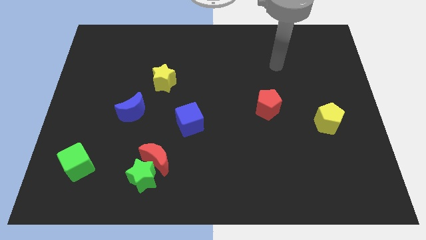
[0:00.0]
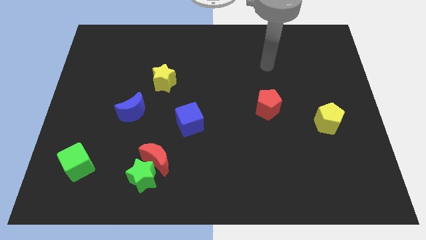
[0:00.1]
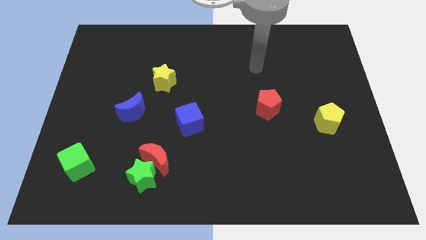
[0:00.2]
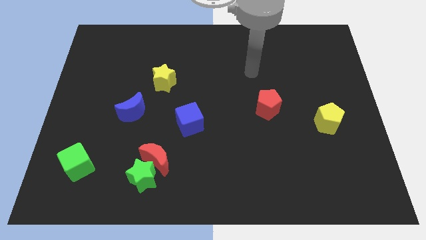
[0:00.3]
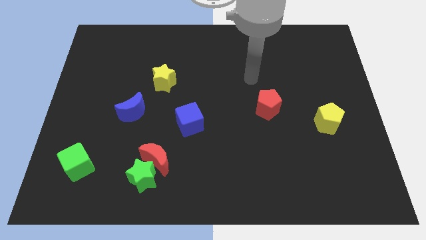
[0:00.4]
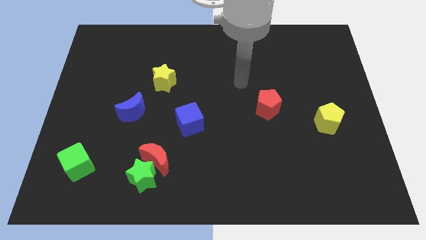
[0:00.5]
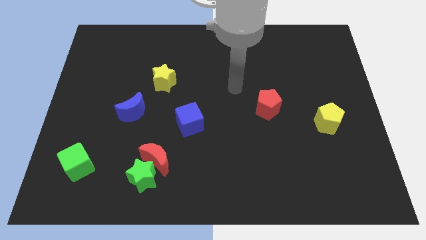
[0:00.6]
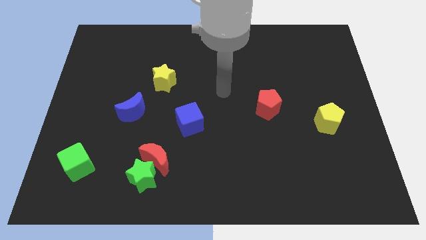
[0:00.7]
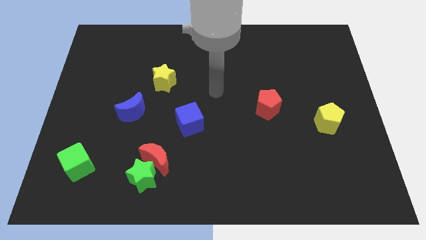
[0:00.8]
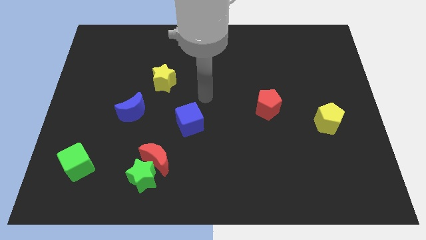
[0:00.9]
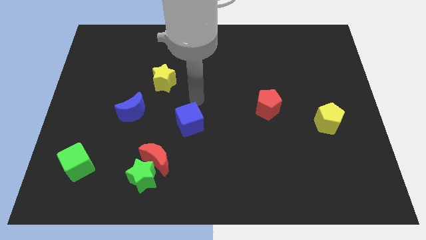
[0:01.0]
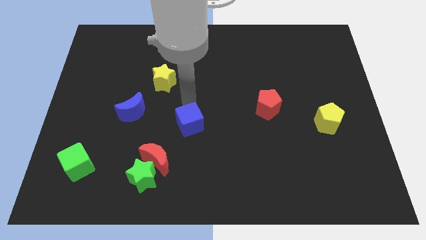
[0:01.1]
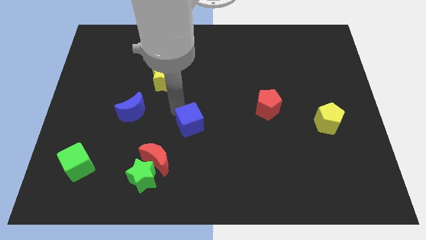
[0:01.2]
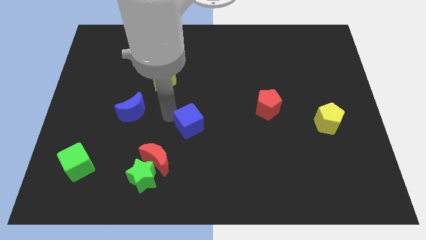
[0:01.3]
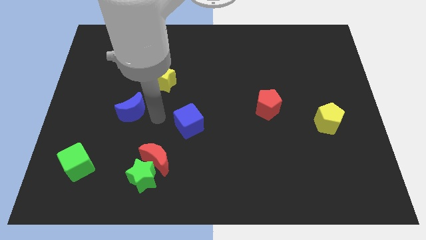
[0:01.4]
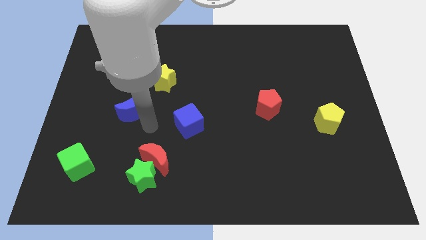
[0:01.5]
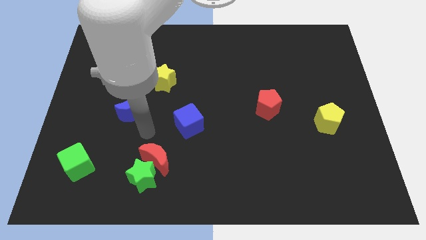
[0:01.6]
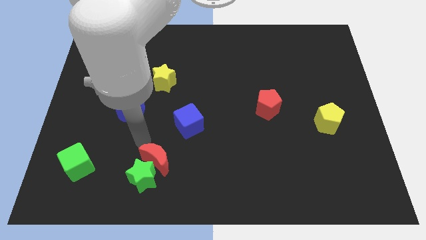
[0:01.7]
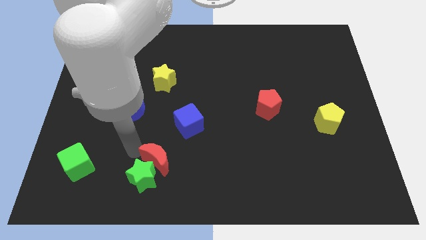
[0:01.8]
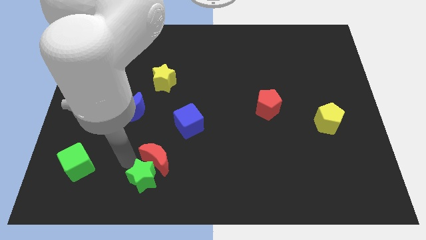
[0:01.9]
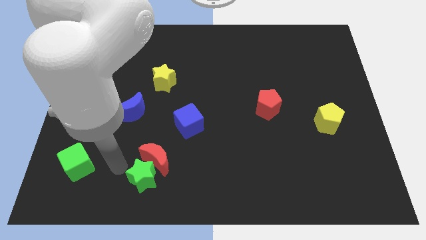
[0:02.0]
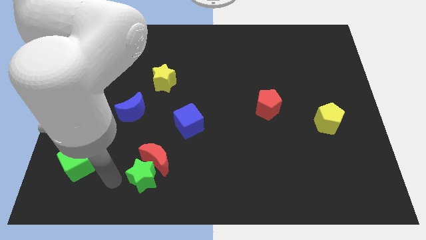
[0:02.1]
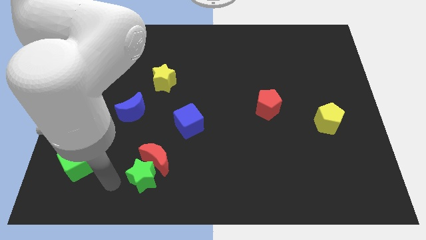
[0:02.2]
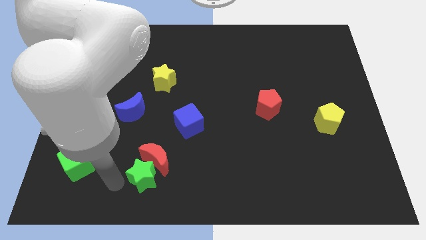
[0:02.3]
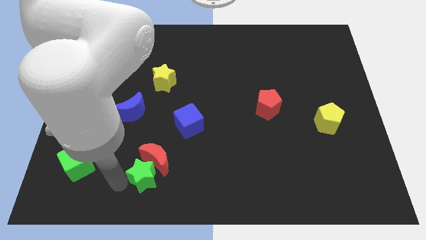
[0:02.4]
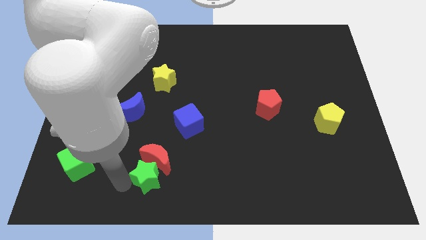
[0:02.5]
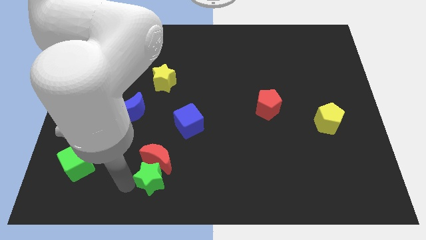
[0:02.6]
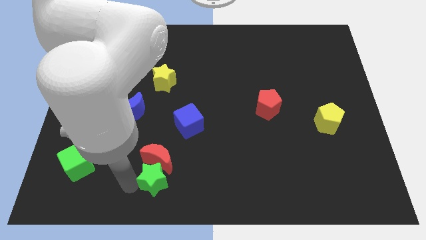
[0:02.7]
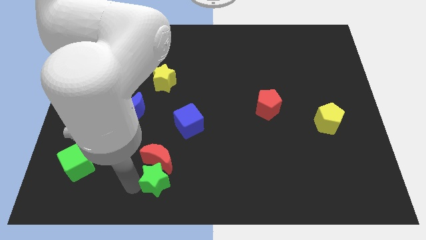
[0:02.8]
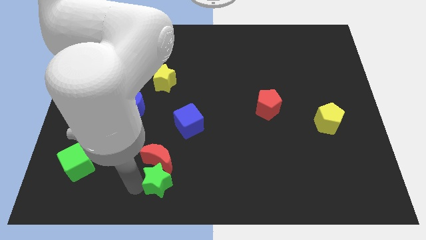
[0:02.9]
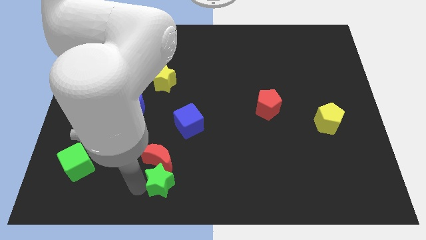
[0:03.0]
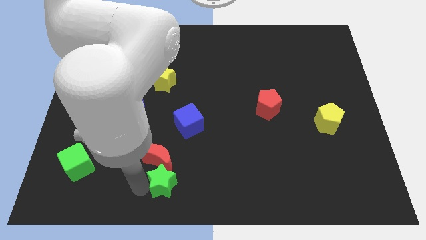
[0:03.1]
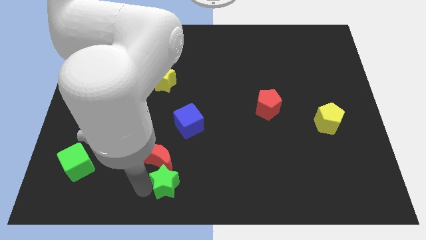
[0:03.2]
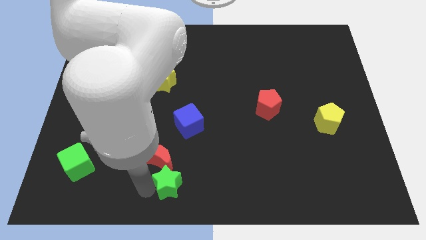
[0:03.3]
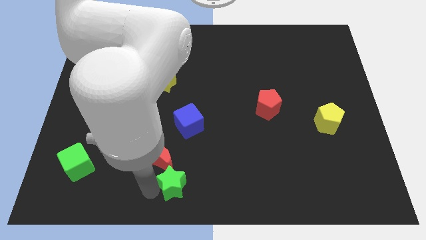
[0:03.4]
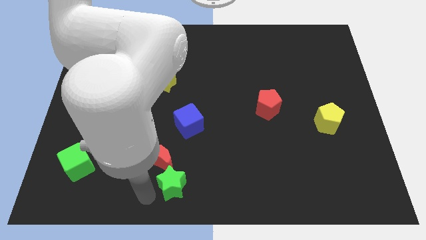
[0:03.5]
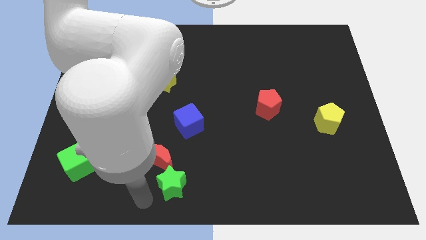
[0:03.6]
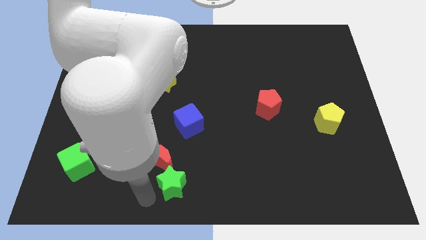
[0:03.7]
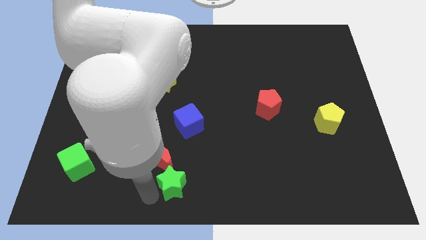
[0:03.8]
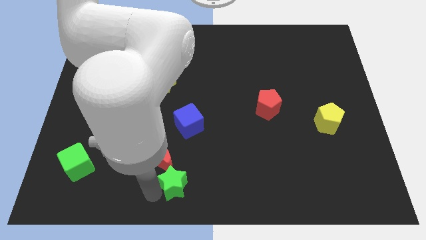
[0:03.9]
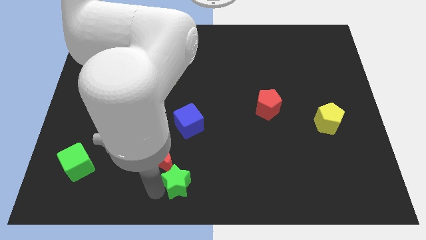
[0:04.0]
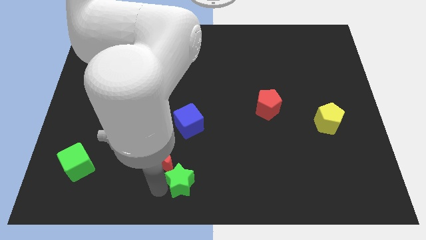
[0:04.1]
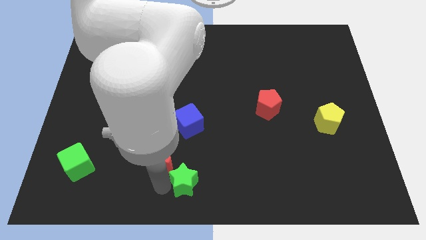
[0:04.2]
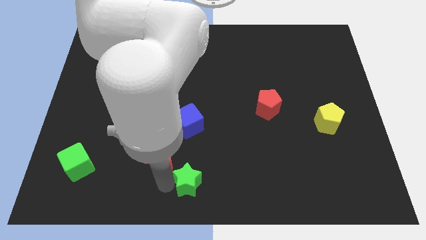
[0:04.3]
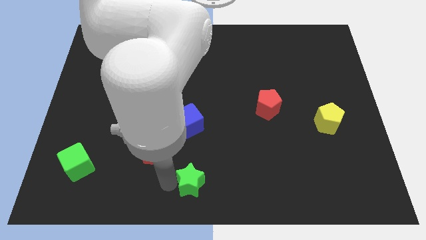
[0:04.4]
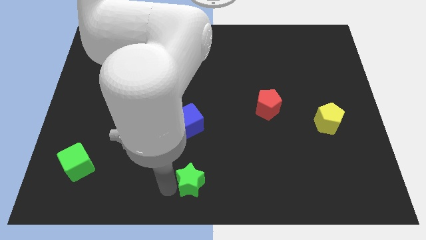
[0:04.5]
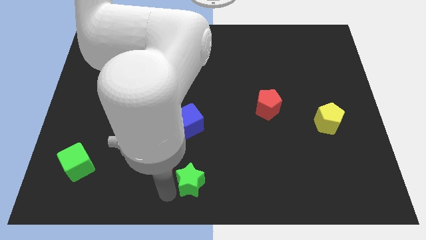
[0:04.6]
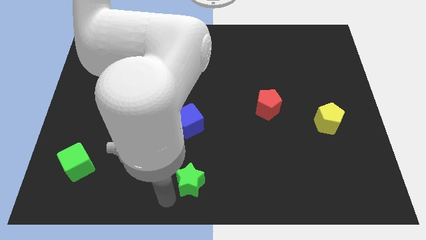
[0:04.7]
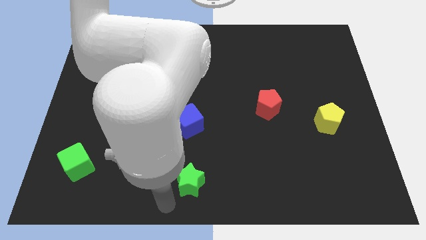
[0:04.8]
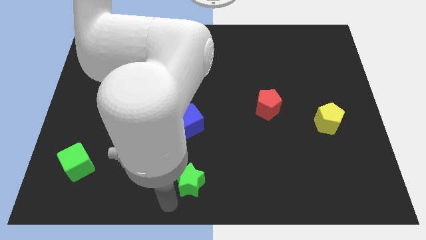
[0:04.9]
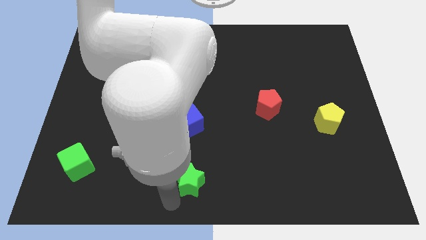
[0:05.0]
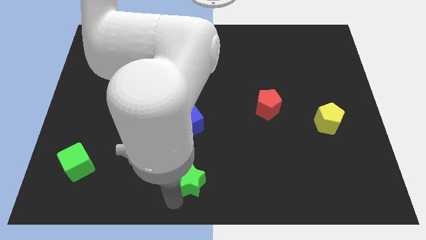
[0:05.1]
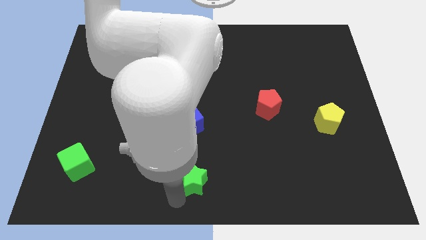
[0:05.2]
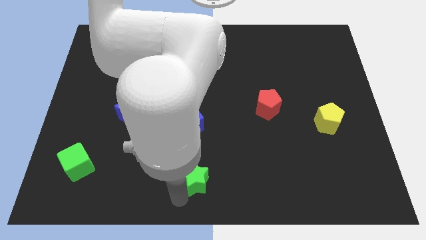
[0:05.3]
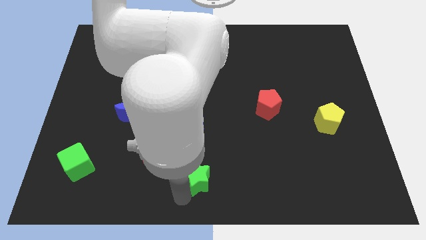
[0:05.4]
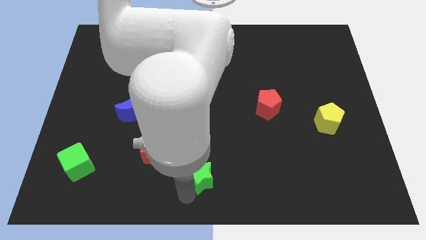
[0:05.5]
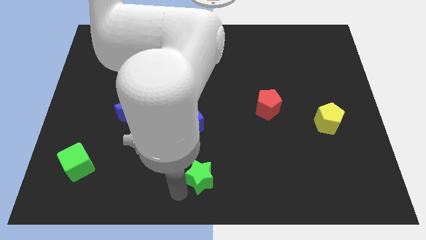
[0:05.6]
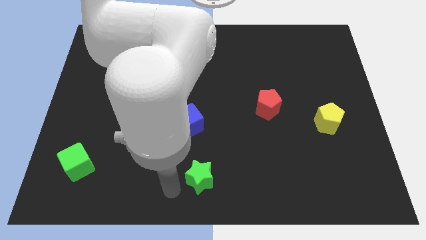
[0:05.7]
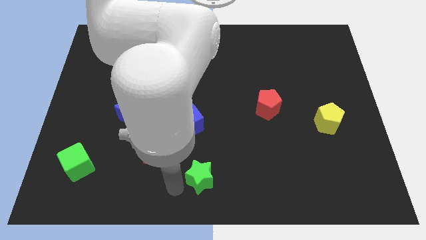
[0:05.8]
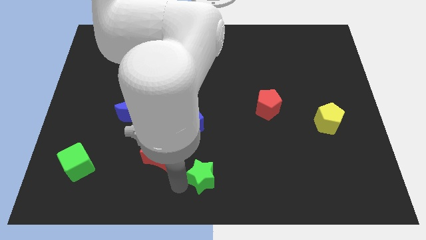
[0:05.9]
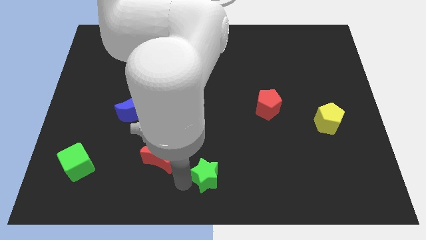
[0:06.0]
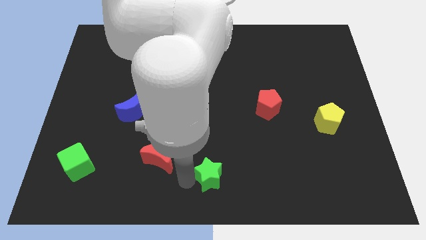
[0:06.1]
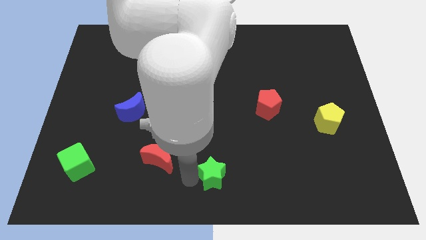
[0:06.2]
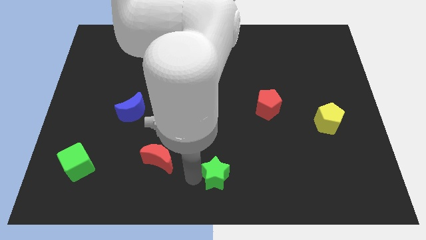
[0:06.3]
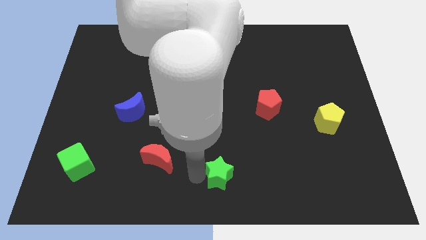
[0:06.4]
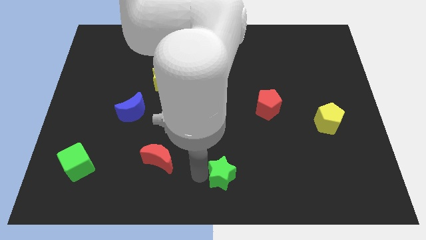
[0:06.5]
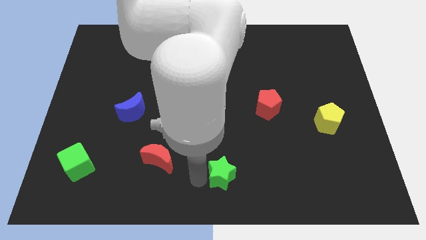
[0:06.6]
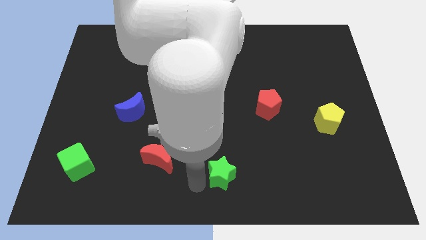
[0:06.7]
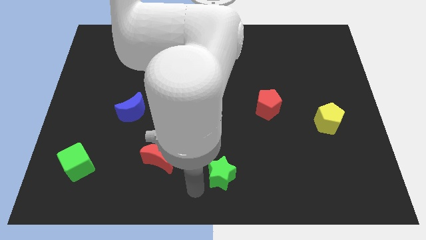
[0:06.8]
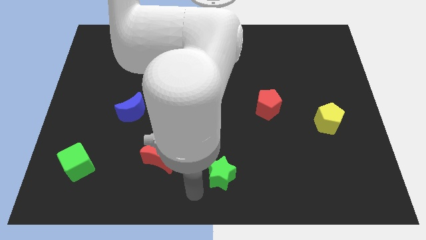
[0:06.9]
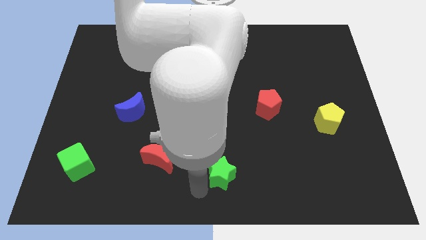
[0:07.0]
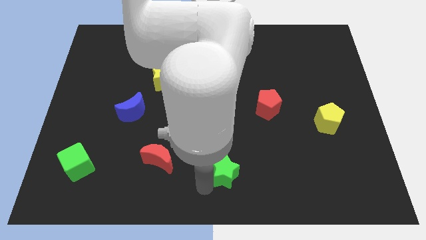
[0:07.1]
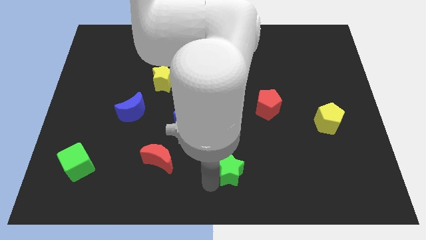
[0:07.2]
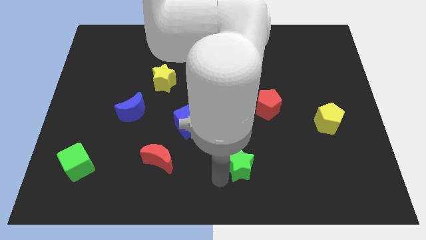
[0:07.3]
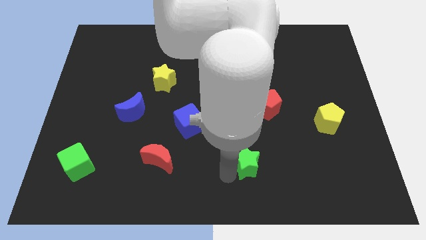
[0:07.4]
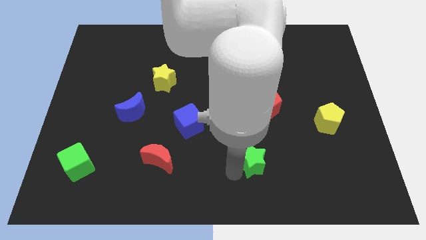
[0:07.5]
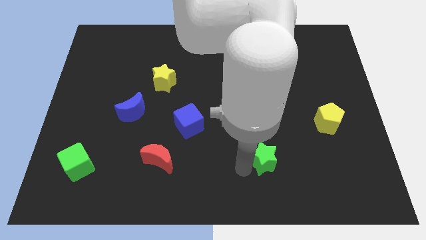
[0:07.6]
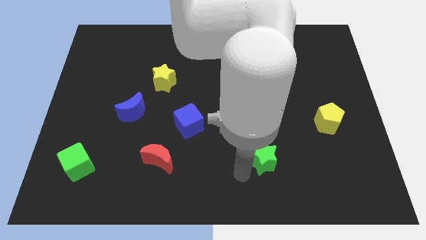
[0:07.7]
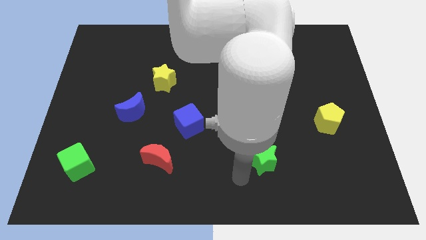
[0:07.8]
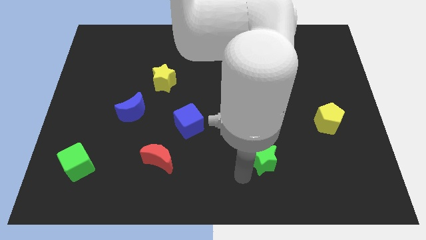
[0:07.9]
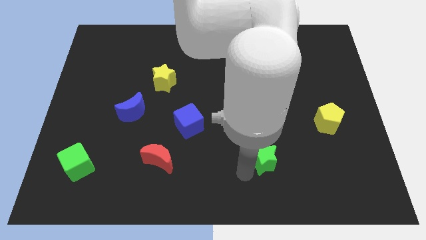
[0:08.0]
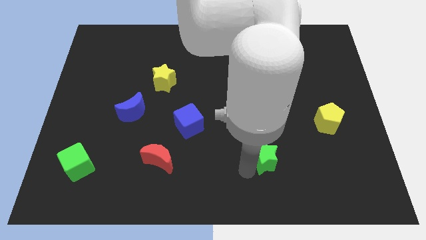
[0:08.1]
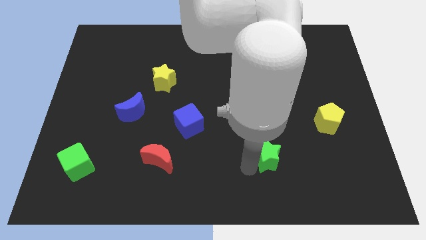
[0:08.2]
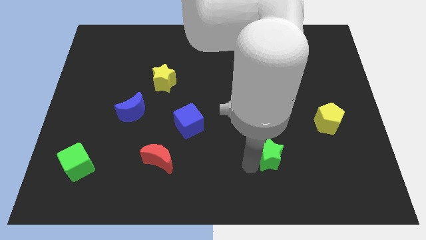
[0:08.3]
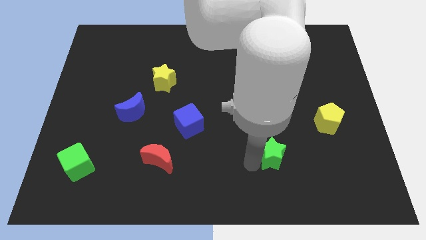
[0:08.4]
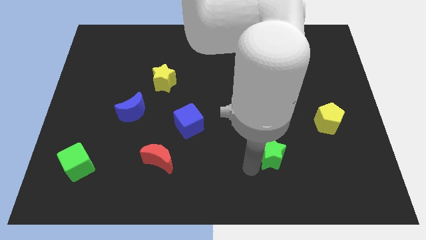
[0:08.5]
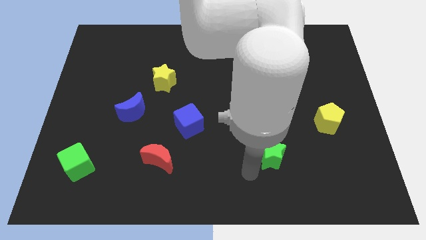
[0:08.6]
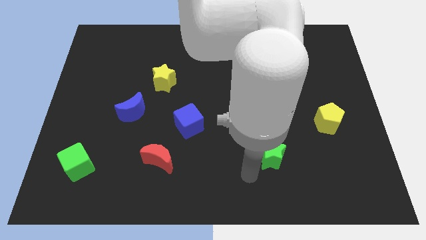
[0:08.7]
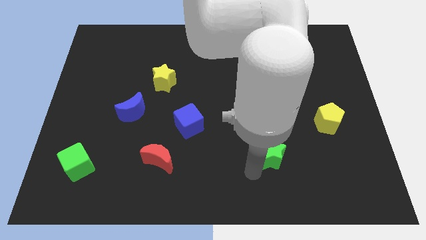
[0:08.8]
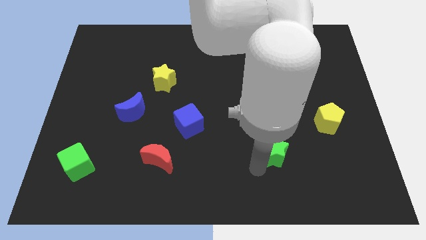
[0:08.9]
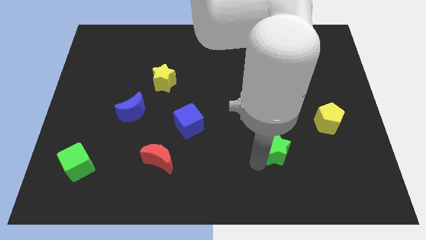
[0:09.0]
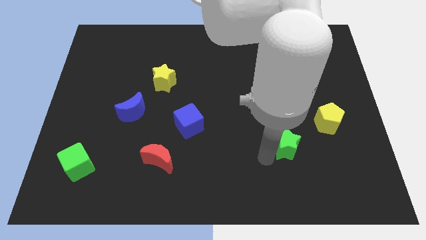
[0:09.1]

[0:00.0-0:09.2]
push the green star to the bottom left side of the yellow pentagon
